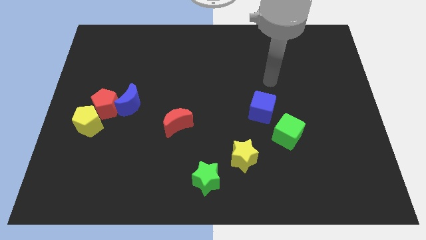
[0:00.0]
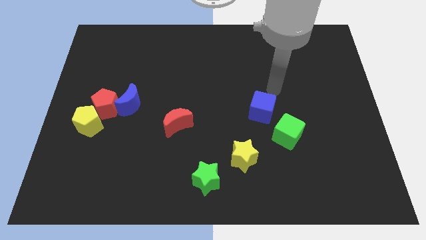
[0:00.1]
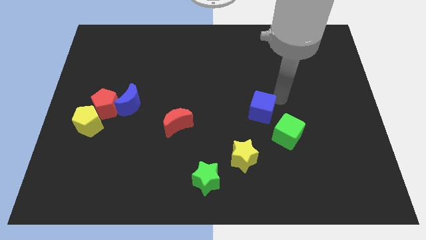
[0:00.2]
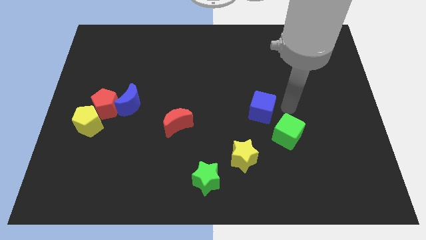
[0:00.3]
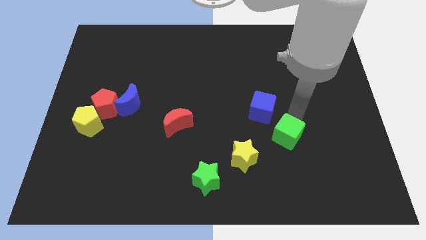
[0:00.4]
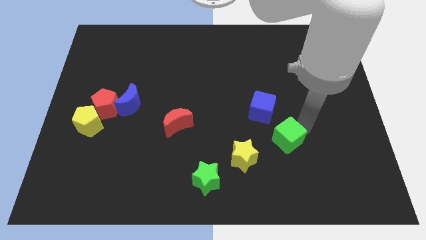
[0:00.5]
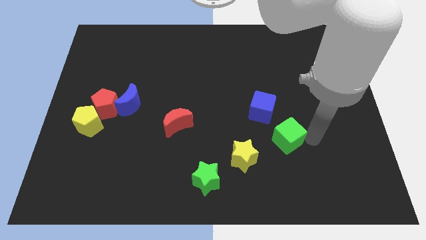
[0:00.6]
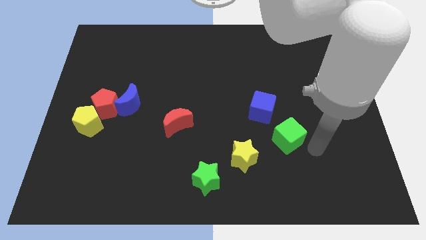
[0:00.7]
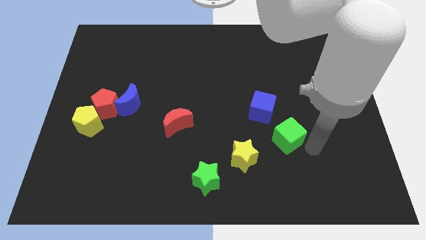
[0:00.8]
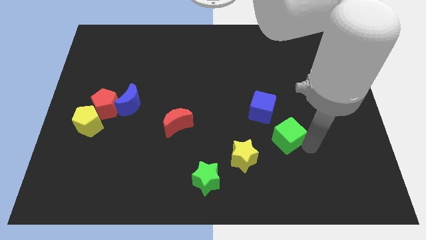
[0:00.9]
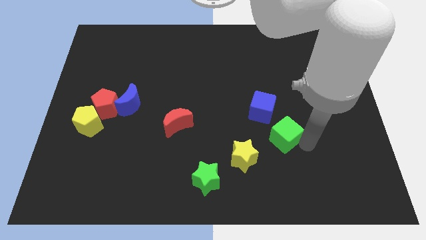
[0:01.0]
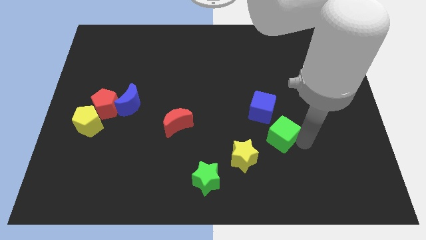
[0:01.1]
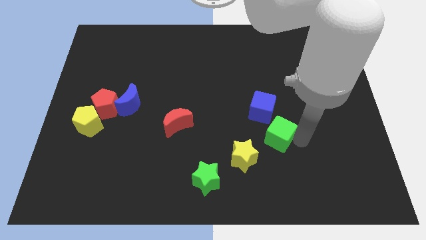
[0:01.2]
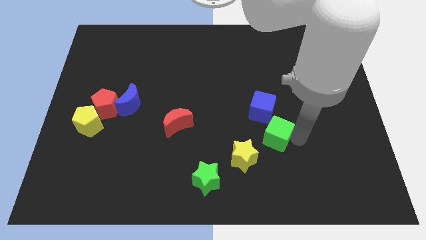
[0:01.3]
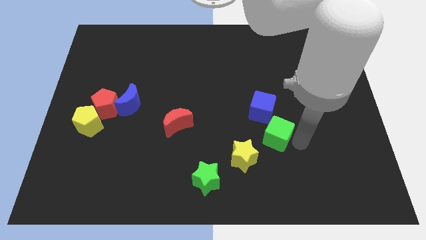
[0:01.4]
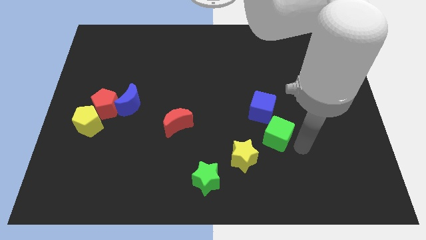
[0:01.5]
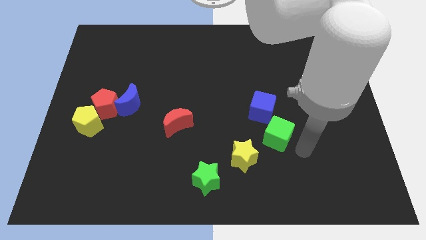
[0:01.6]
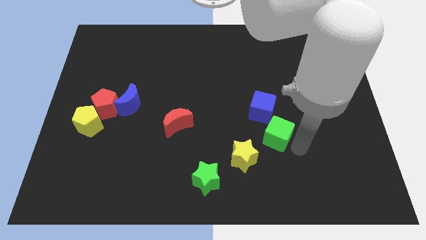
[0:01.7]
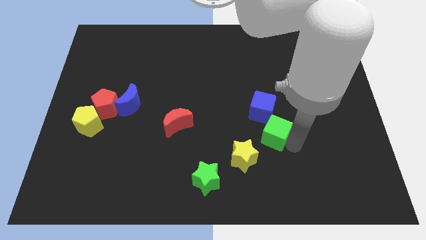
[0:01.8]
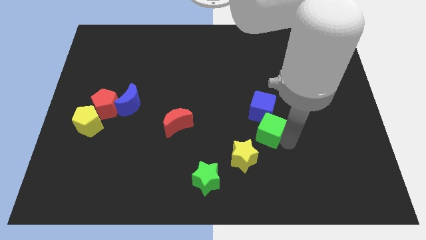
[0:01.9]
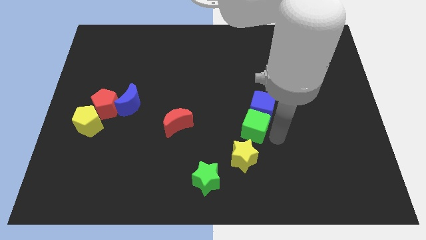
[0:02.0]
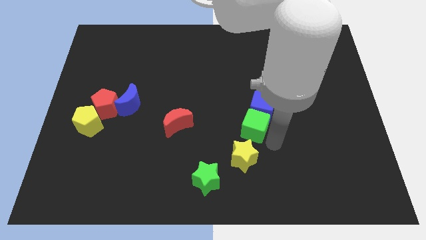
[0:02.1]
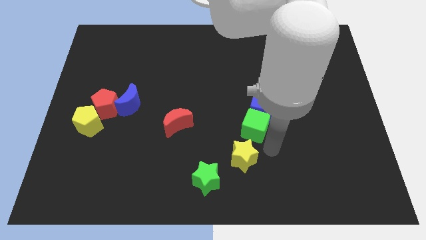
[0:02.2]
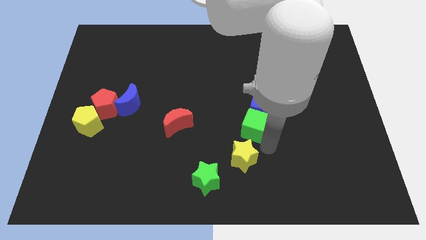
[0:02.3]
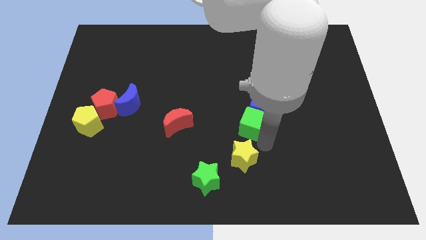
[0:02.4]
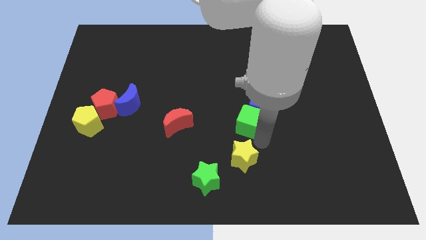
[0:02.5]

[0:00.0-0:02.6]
move the green cube up and left a little

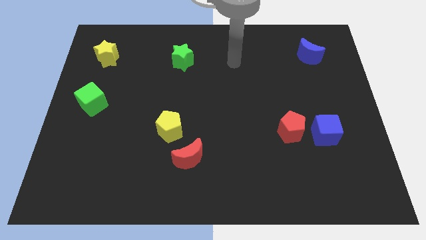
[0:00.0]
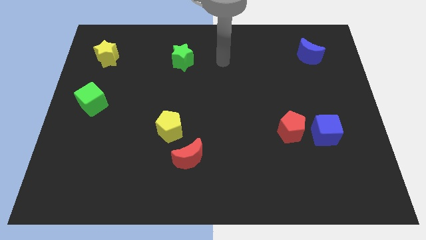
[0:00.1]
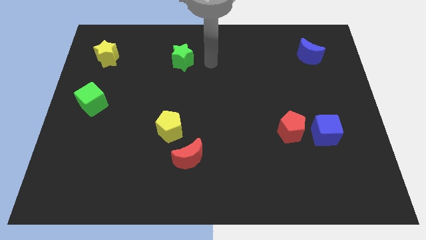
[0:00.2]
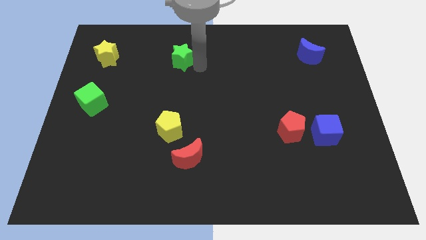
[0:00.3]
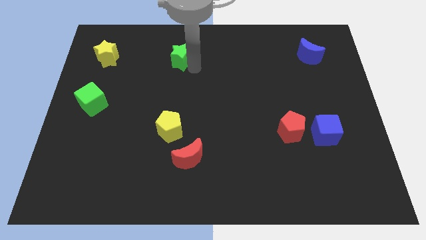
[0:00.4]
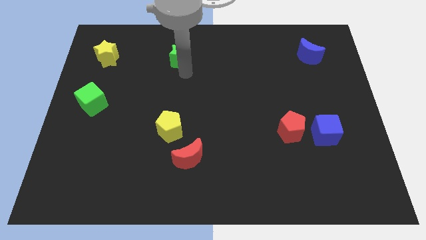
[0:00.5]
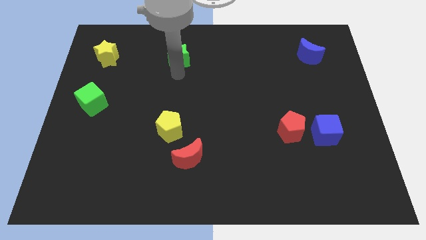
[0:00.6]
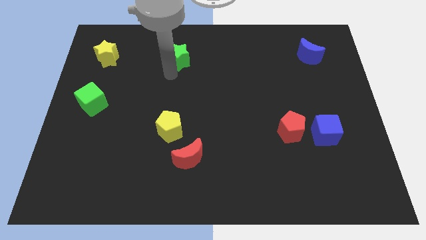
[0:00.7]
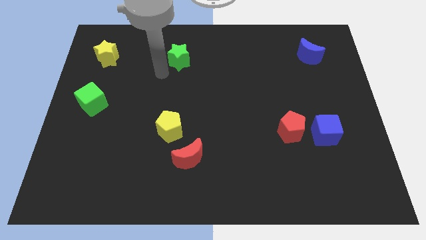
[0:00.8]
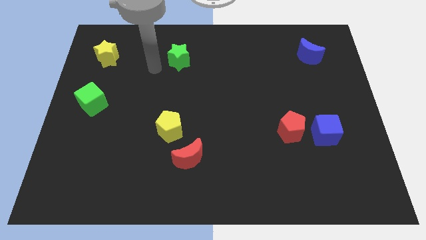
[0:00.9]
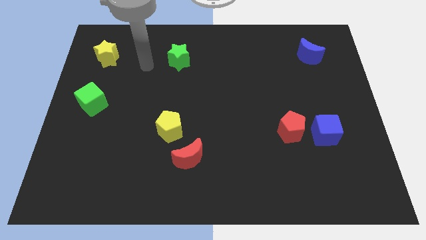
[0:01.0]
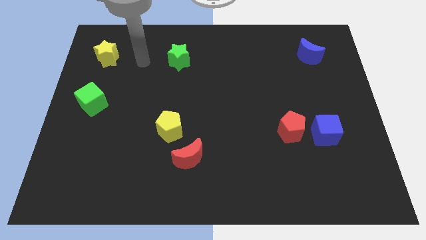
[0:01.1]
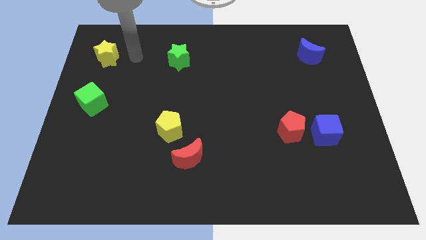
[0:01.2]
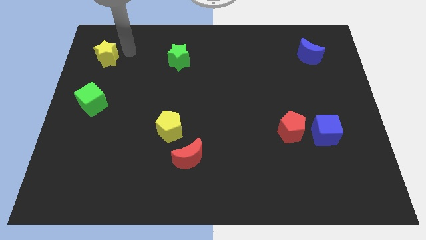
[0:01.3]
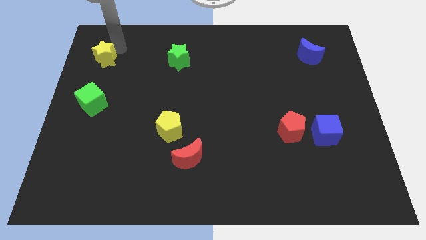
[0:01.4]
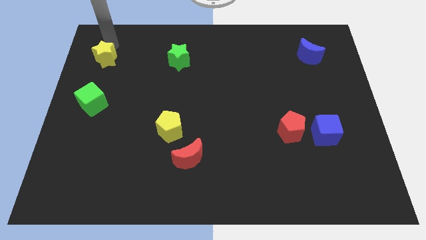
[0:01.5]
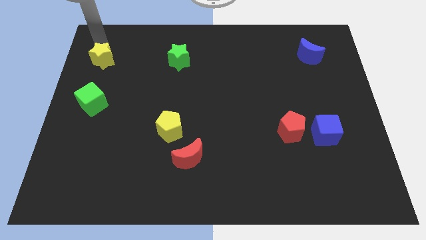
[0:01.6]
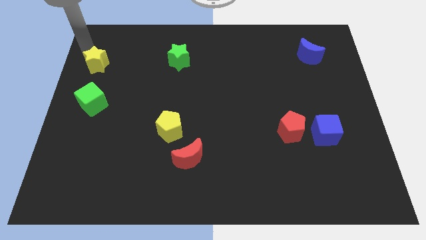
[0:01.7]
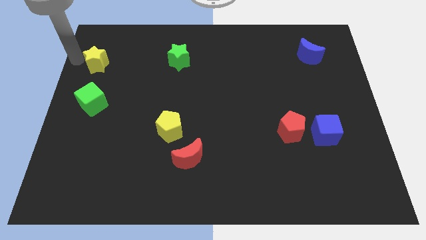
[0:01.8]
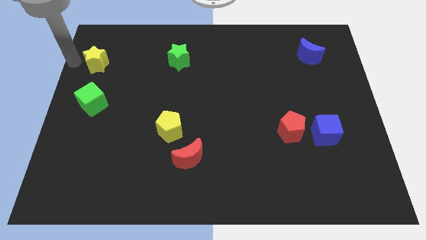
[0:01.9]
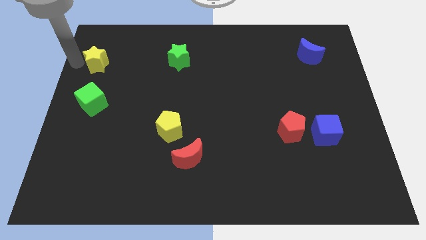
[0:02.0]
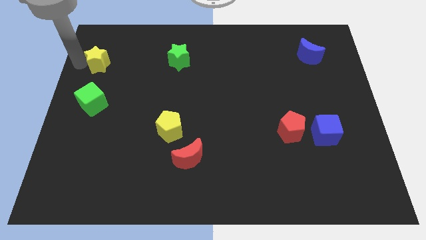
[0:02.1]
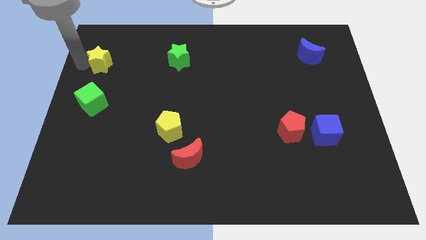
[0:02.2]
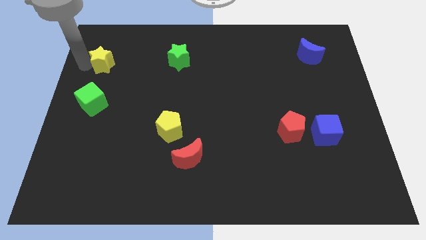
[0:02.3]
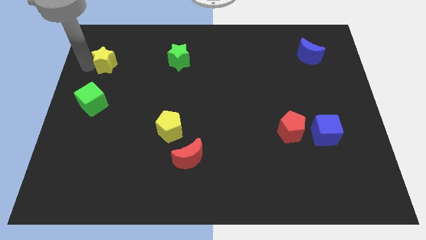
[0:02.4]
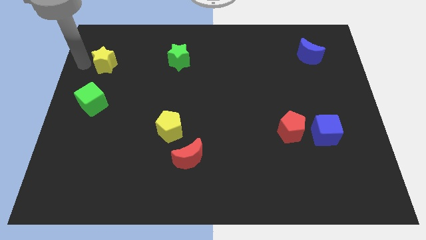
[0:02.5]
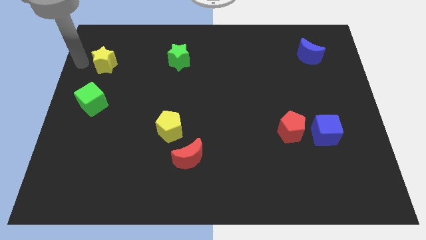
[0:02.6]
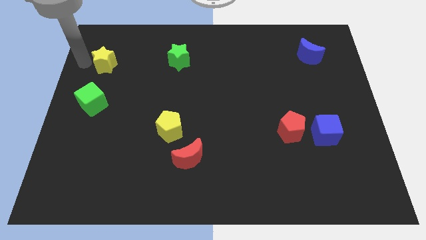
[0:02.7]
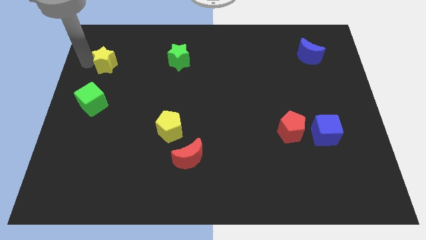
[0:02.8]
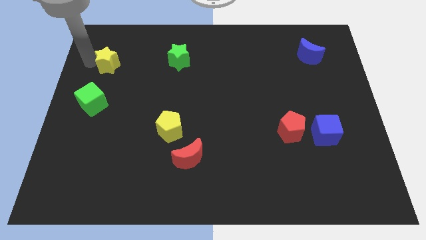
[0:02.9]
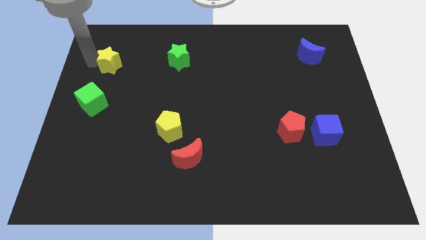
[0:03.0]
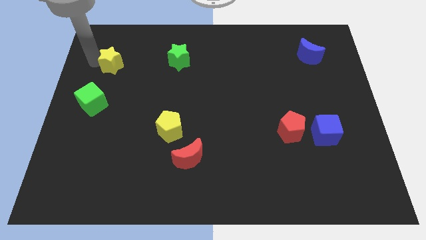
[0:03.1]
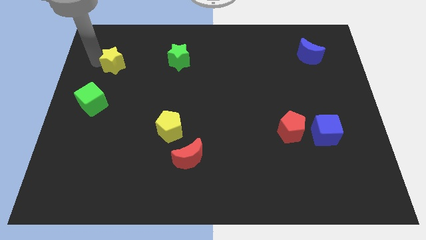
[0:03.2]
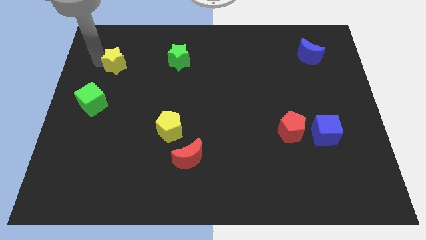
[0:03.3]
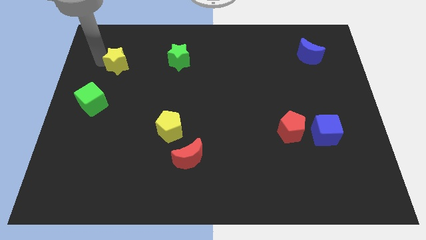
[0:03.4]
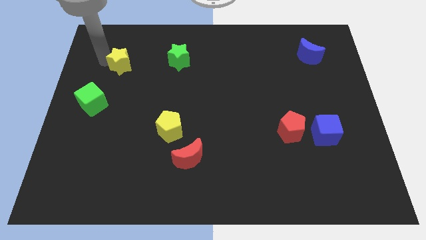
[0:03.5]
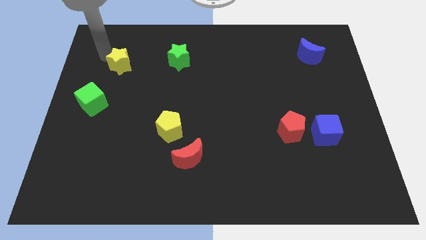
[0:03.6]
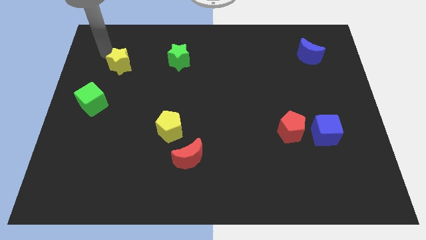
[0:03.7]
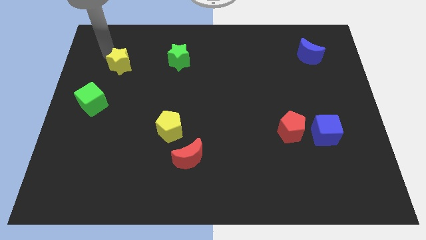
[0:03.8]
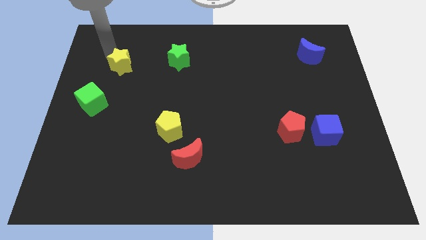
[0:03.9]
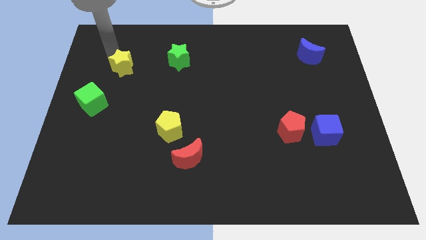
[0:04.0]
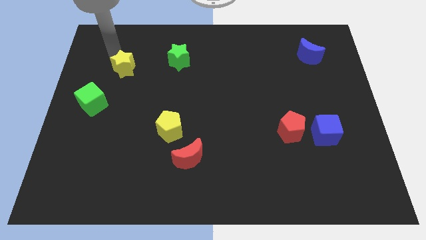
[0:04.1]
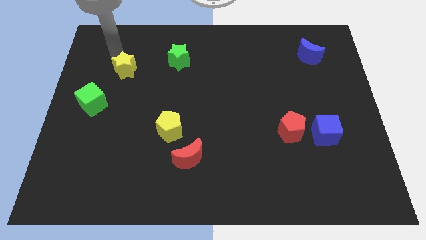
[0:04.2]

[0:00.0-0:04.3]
slide the yellow star somewhat down and then right

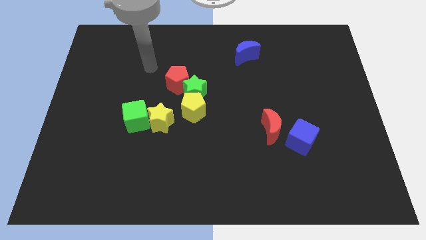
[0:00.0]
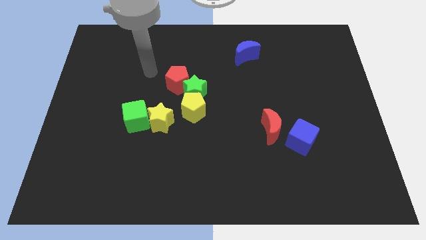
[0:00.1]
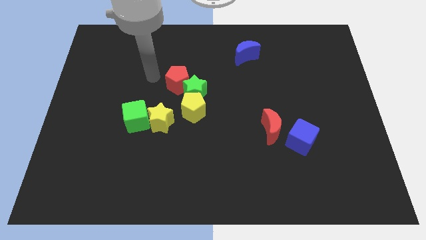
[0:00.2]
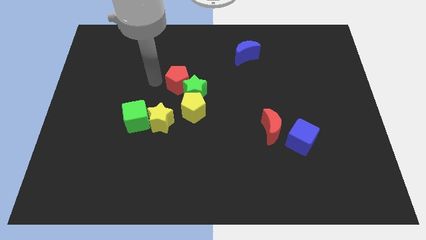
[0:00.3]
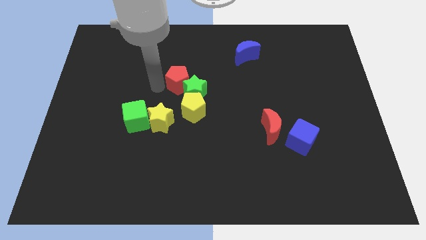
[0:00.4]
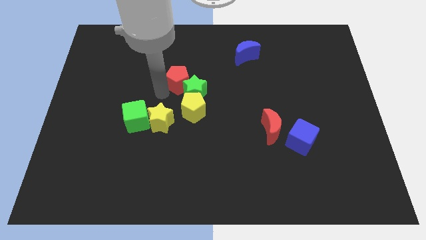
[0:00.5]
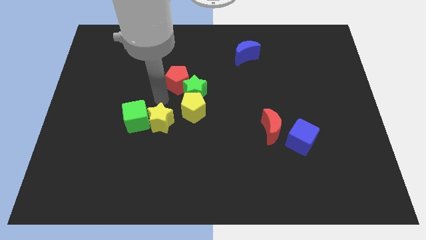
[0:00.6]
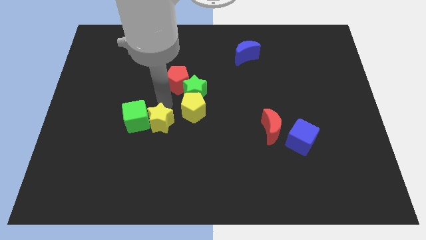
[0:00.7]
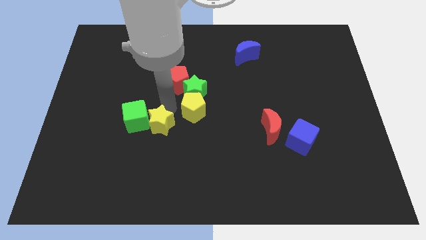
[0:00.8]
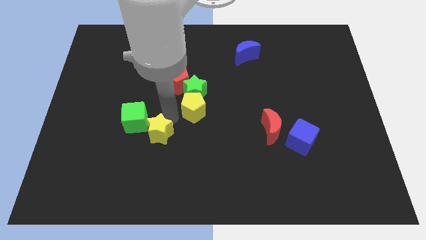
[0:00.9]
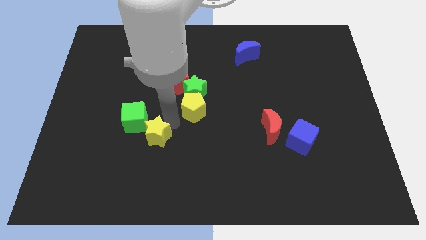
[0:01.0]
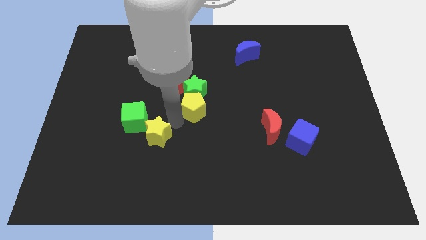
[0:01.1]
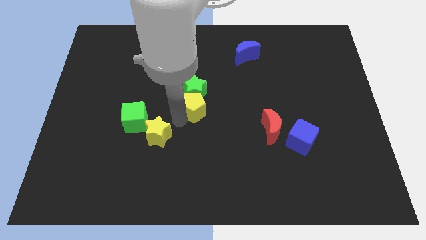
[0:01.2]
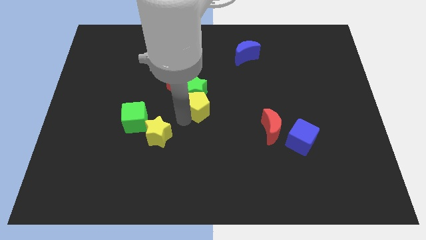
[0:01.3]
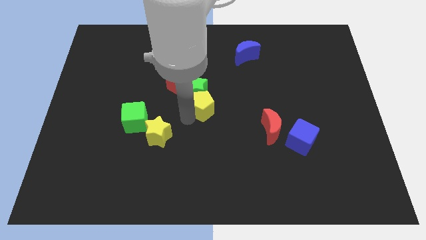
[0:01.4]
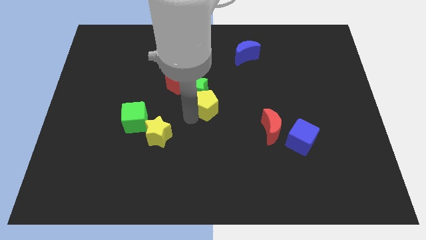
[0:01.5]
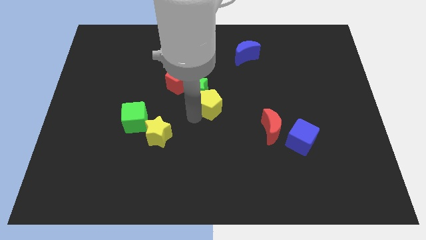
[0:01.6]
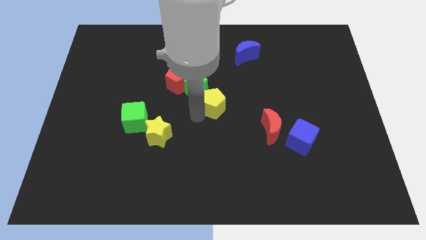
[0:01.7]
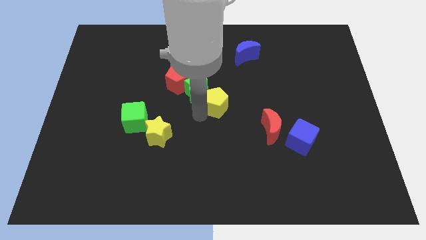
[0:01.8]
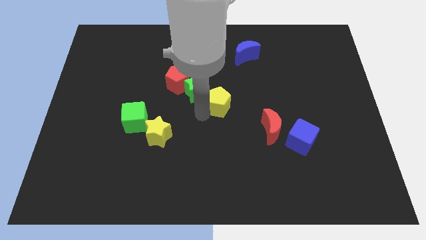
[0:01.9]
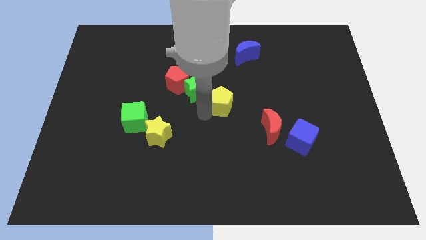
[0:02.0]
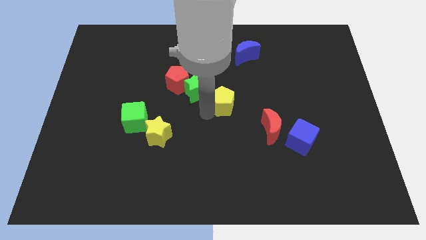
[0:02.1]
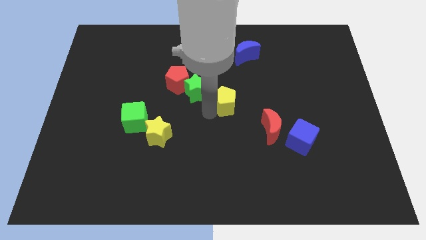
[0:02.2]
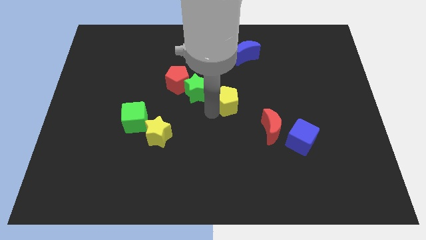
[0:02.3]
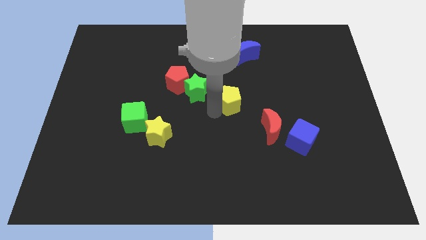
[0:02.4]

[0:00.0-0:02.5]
push the yellow pentagon a little up and then right
